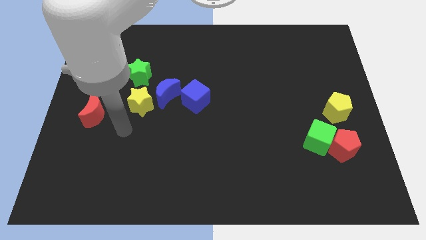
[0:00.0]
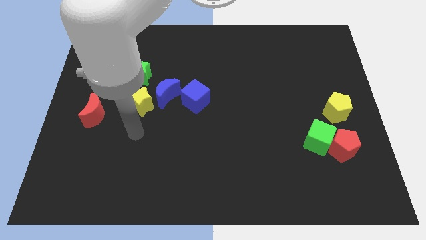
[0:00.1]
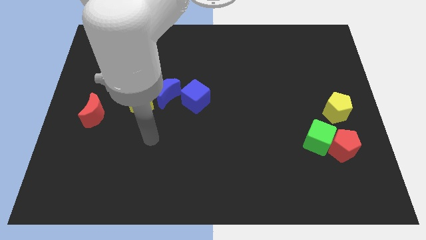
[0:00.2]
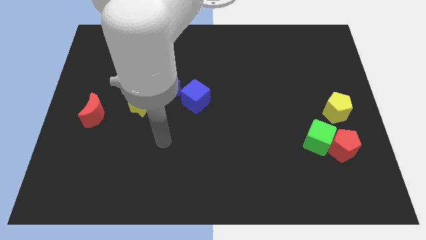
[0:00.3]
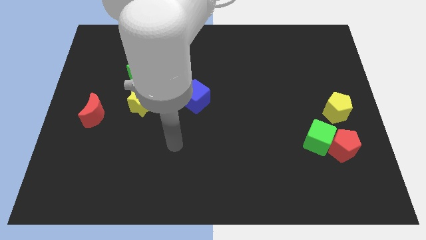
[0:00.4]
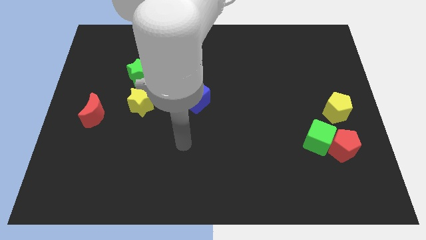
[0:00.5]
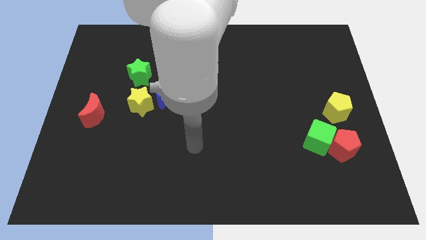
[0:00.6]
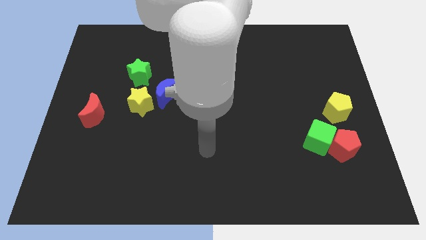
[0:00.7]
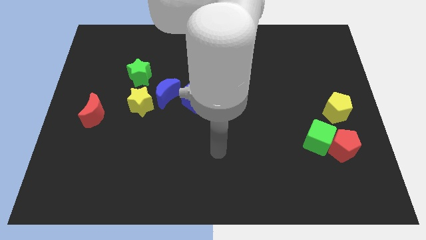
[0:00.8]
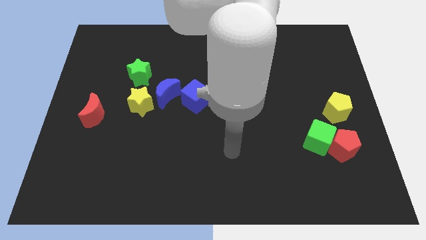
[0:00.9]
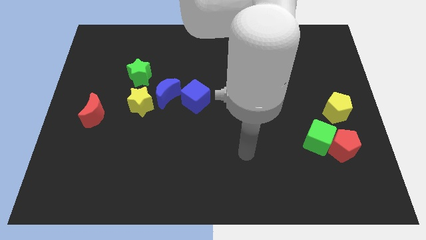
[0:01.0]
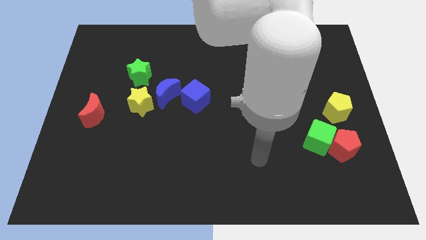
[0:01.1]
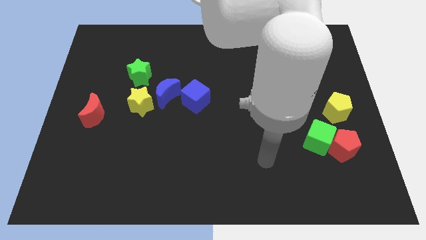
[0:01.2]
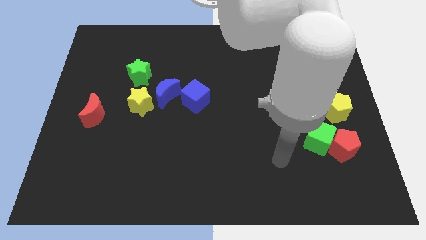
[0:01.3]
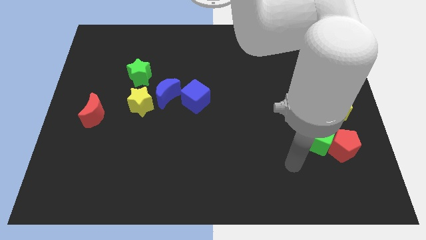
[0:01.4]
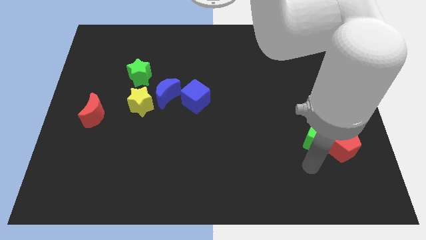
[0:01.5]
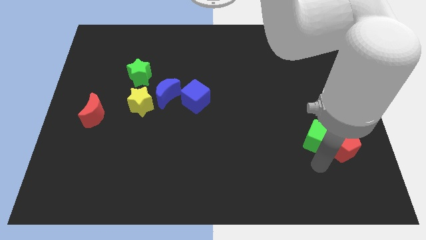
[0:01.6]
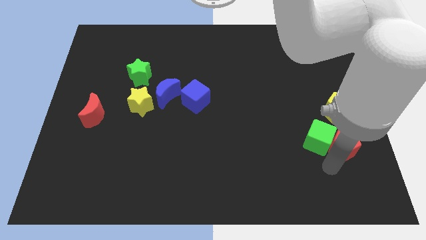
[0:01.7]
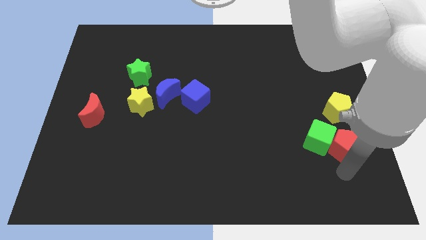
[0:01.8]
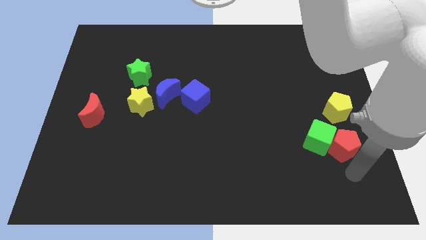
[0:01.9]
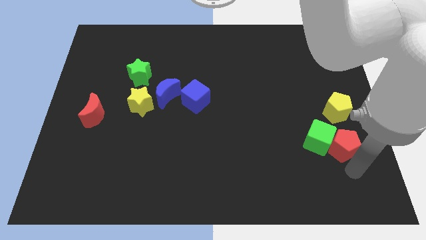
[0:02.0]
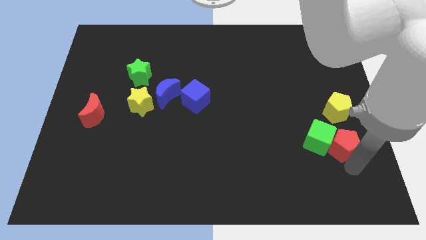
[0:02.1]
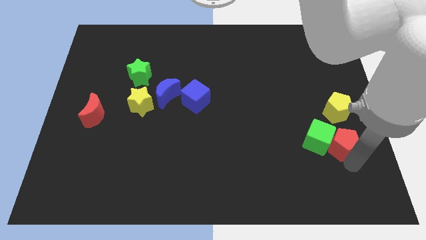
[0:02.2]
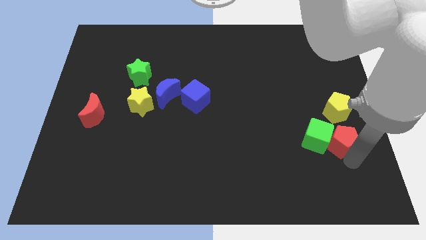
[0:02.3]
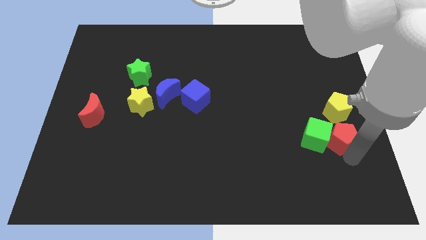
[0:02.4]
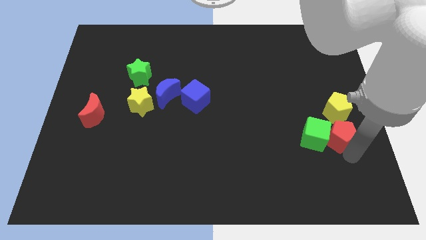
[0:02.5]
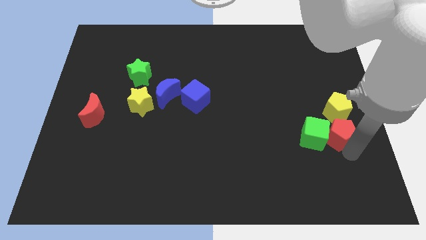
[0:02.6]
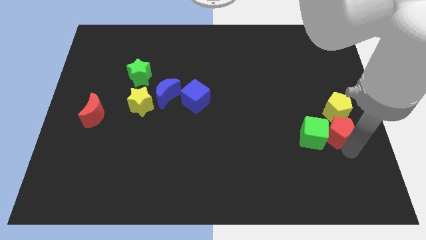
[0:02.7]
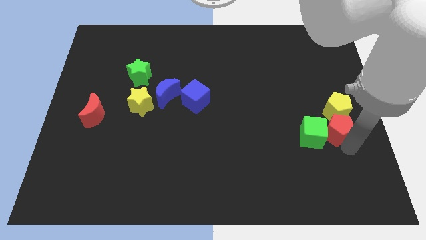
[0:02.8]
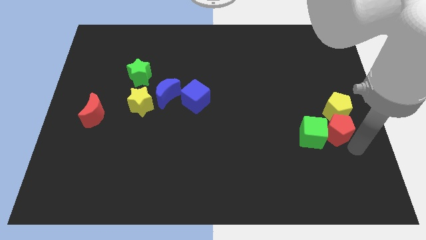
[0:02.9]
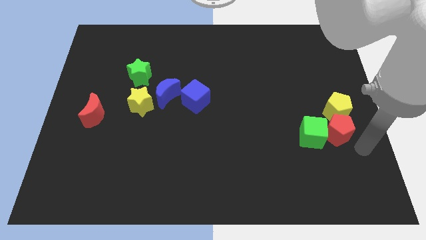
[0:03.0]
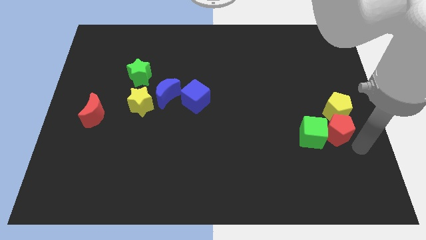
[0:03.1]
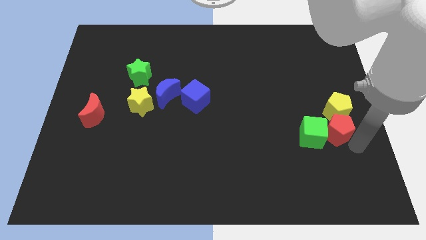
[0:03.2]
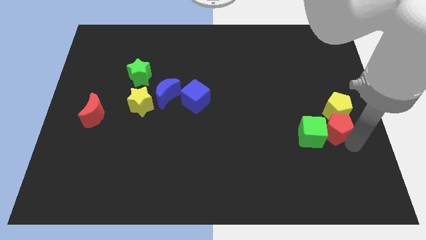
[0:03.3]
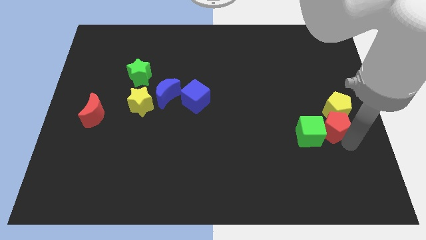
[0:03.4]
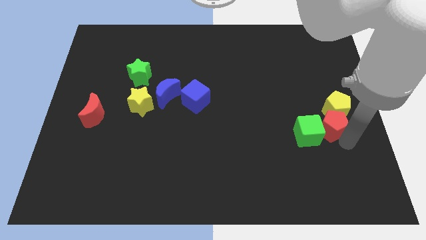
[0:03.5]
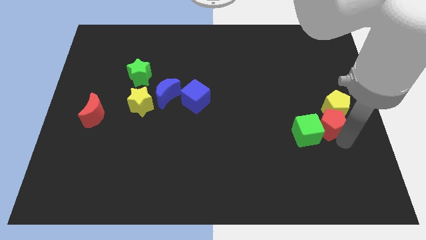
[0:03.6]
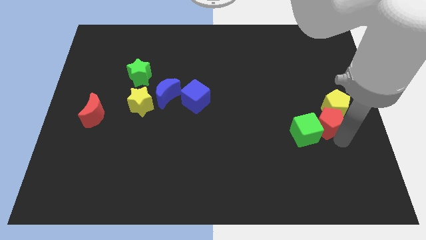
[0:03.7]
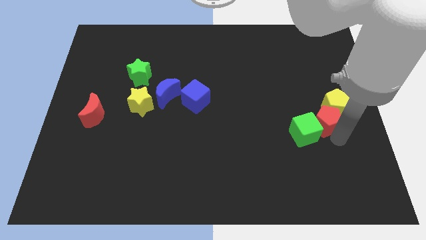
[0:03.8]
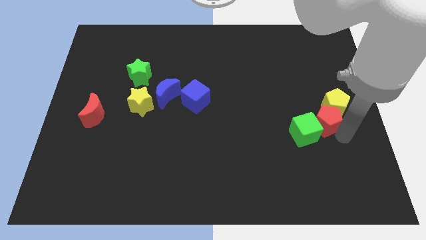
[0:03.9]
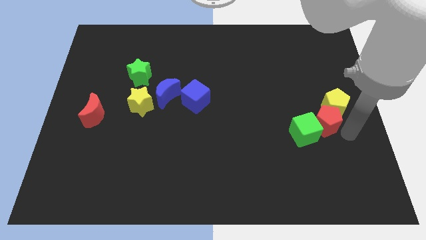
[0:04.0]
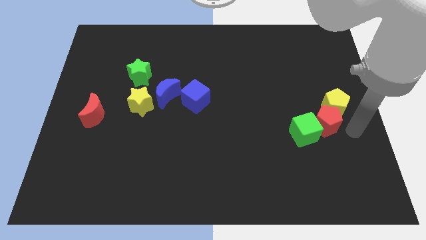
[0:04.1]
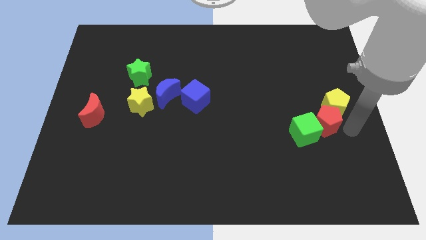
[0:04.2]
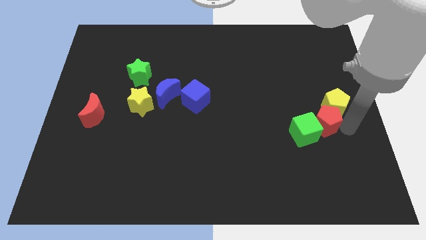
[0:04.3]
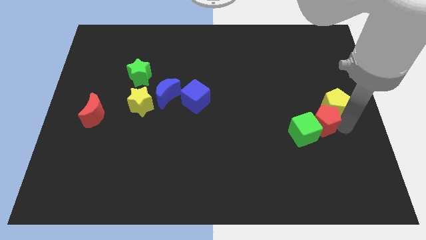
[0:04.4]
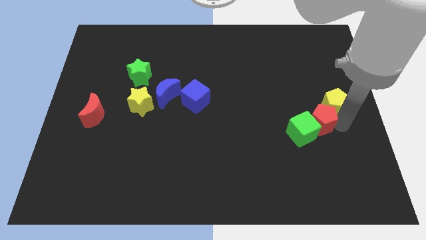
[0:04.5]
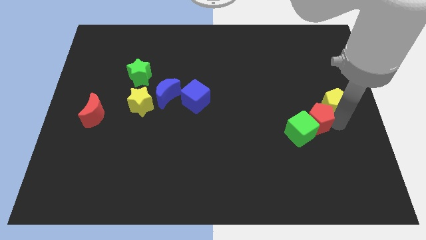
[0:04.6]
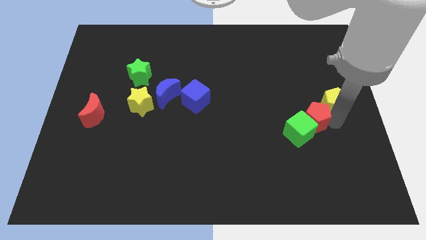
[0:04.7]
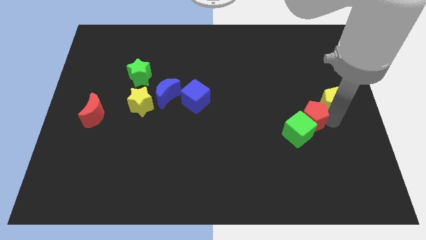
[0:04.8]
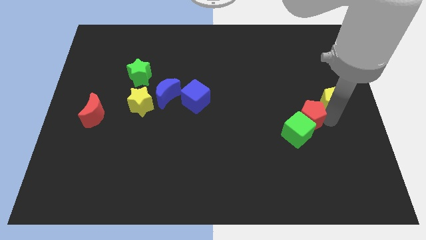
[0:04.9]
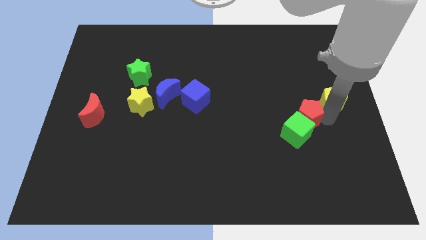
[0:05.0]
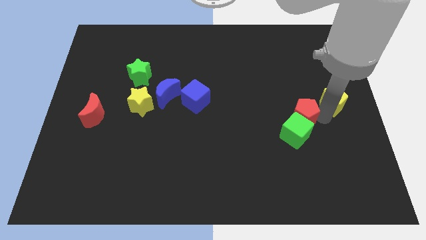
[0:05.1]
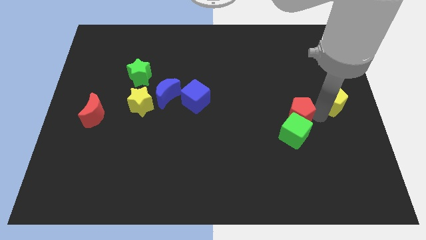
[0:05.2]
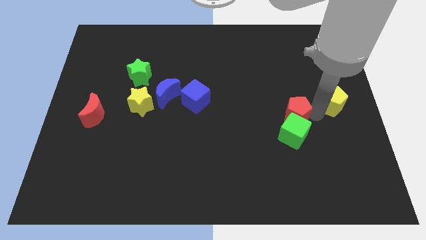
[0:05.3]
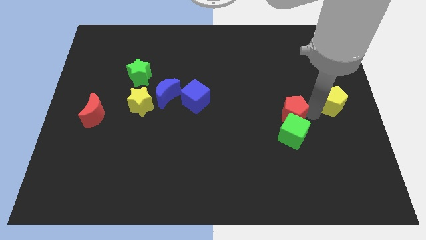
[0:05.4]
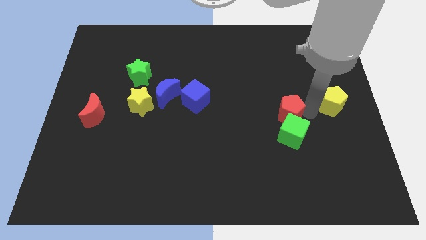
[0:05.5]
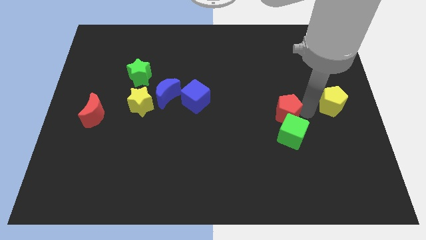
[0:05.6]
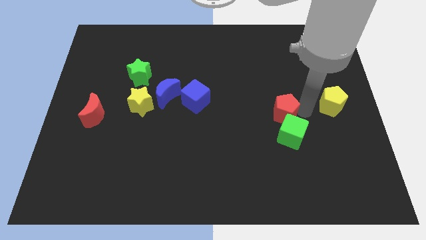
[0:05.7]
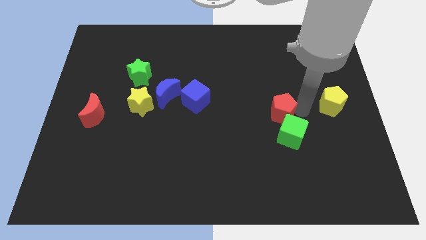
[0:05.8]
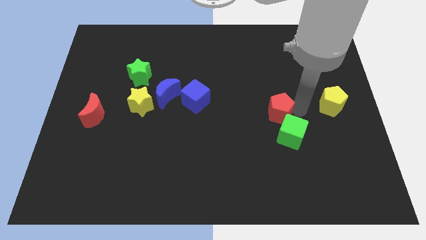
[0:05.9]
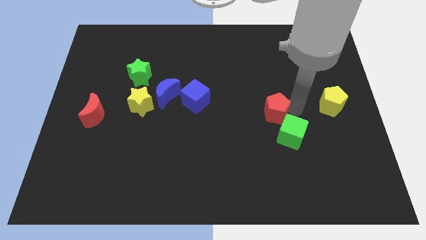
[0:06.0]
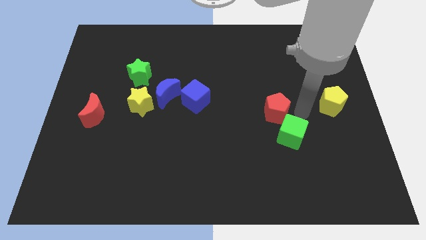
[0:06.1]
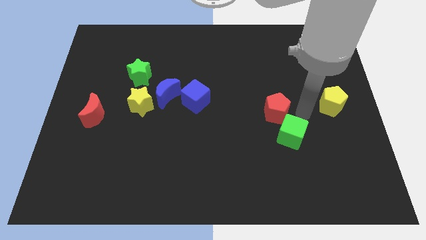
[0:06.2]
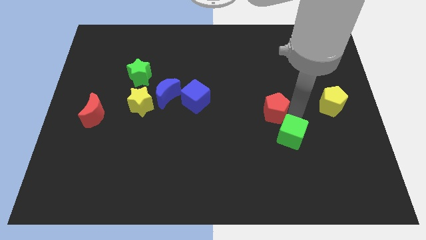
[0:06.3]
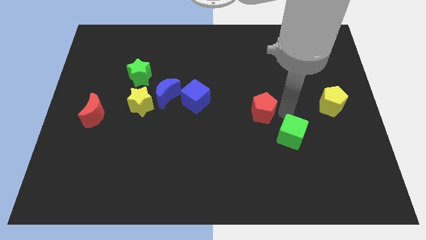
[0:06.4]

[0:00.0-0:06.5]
push the red pentagon to the middle

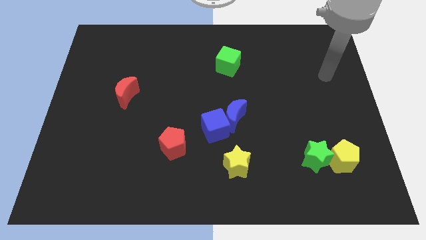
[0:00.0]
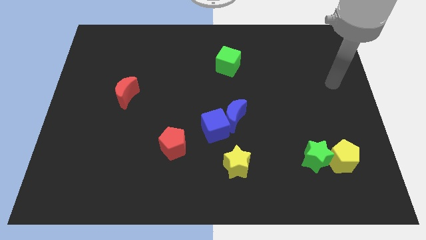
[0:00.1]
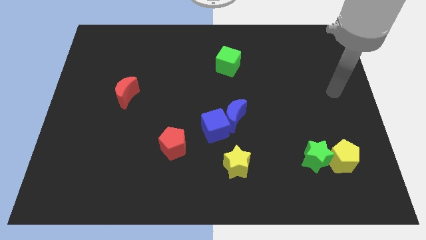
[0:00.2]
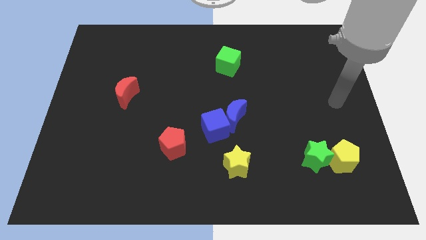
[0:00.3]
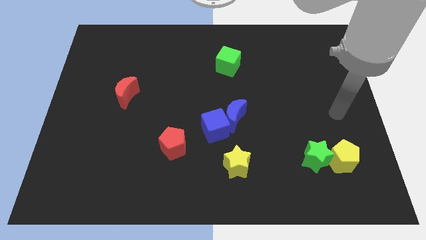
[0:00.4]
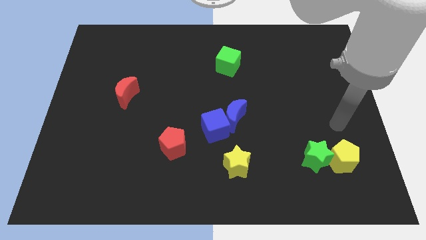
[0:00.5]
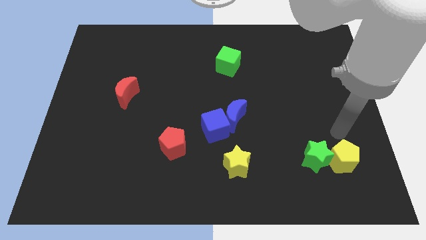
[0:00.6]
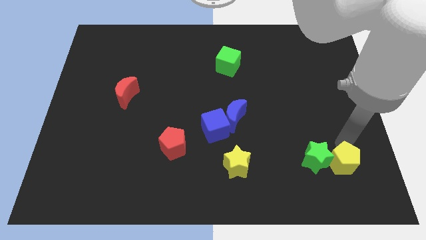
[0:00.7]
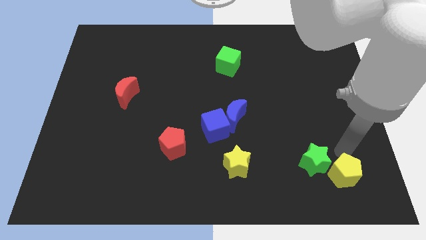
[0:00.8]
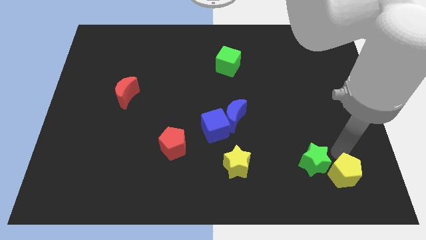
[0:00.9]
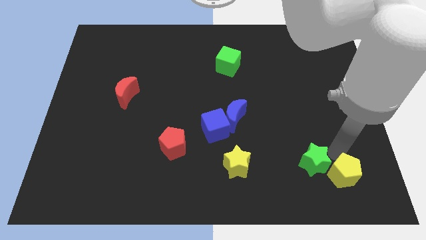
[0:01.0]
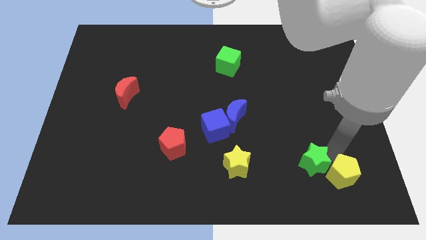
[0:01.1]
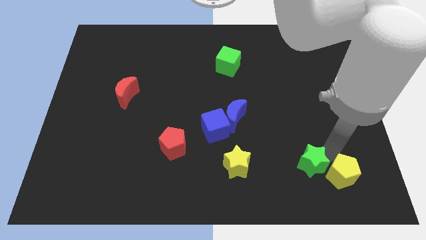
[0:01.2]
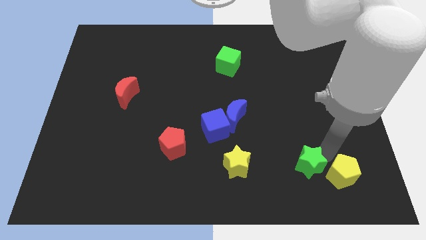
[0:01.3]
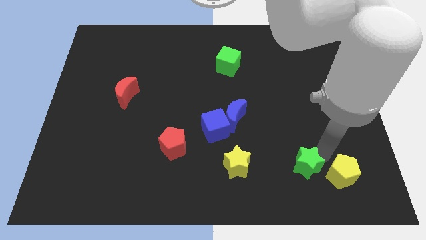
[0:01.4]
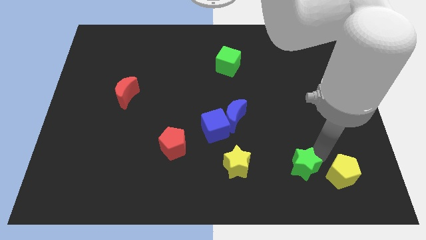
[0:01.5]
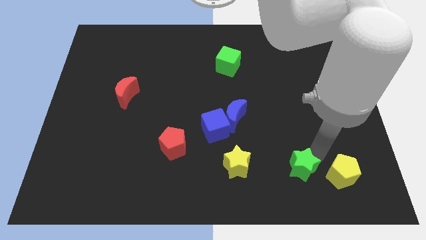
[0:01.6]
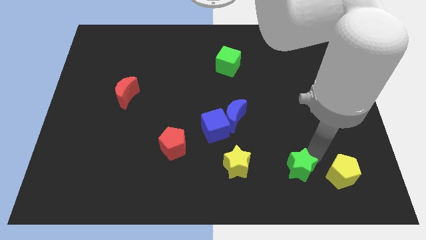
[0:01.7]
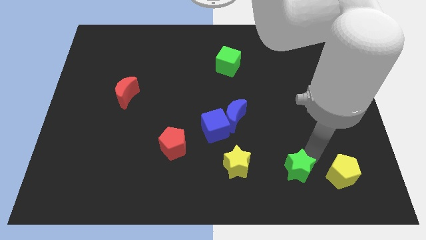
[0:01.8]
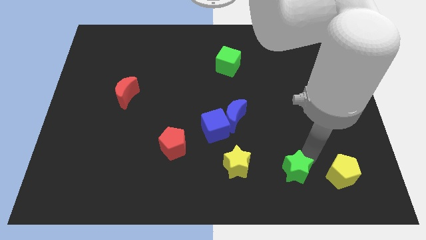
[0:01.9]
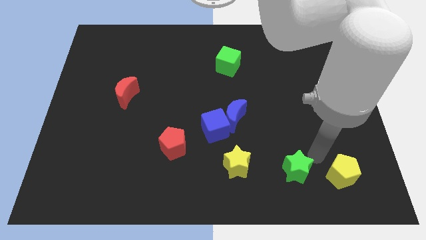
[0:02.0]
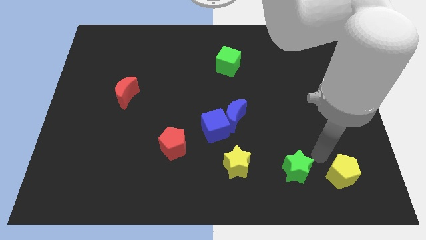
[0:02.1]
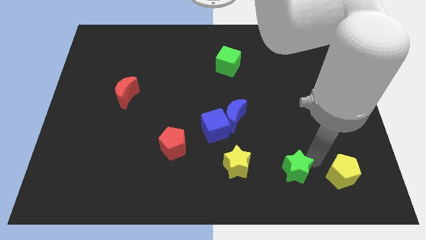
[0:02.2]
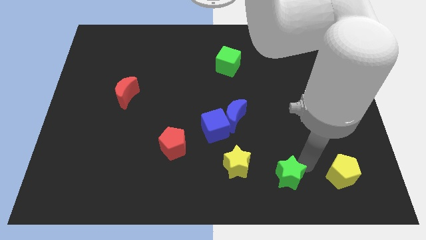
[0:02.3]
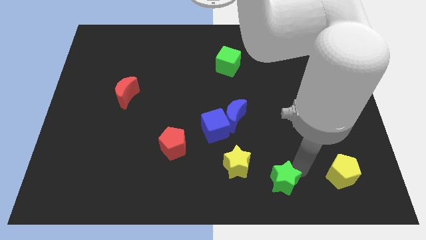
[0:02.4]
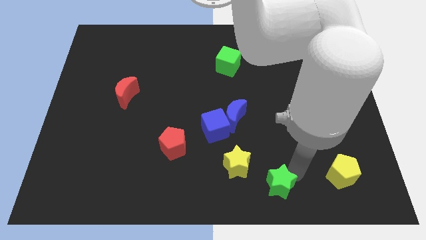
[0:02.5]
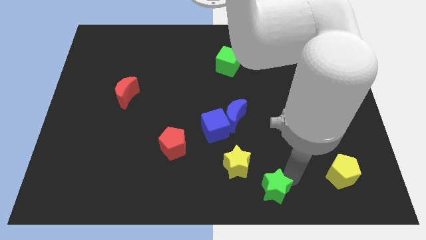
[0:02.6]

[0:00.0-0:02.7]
slide the green star to the bottom
